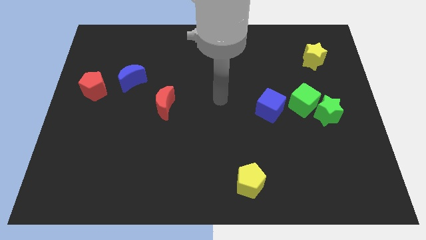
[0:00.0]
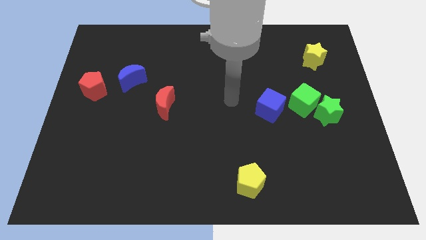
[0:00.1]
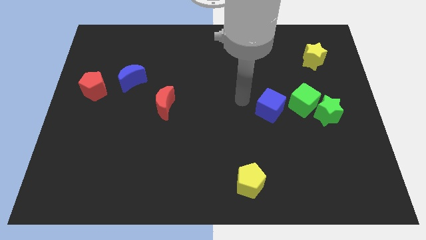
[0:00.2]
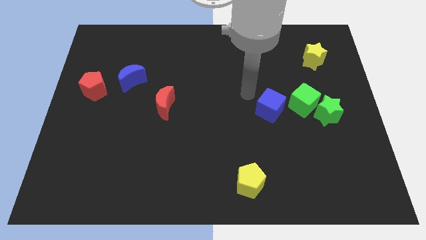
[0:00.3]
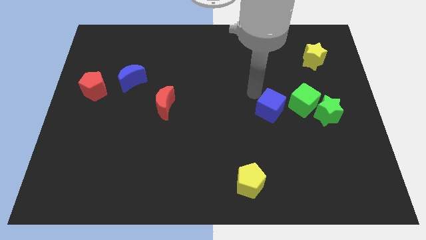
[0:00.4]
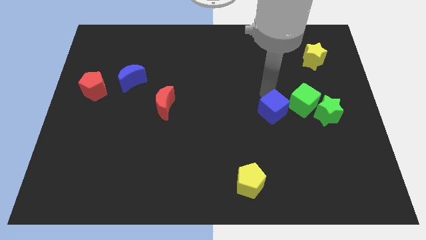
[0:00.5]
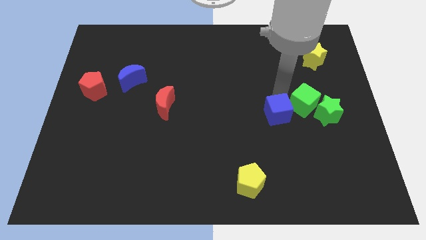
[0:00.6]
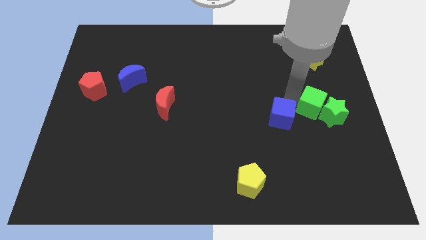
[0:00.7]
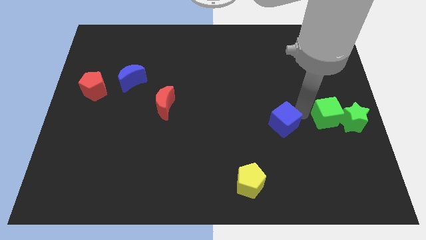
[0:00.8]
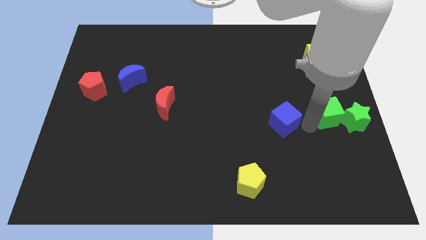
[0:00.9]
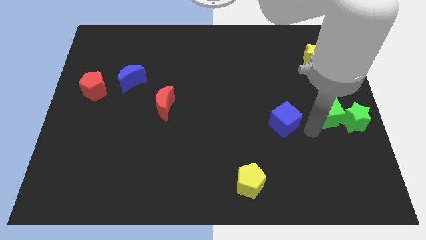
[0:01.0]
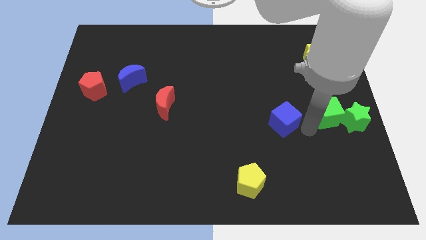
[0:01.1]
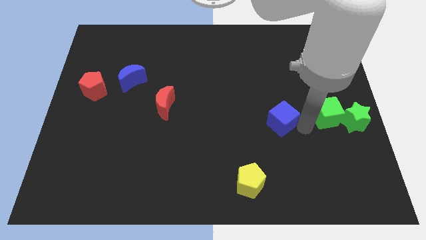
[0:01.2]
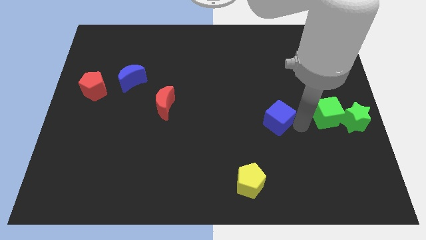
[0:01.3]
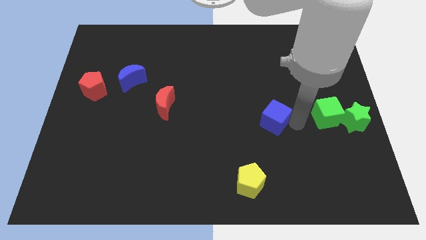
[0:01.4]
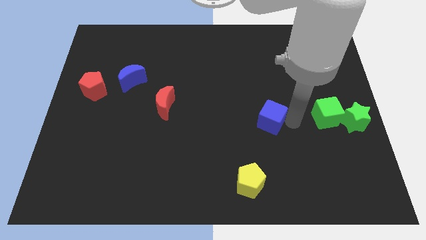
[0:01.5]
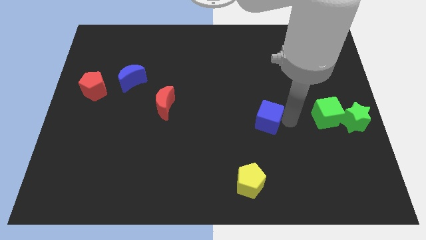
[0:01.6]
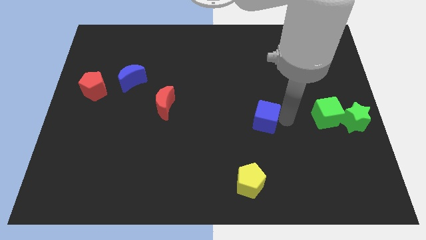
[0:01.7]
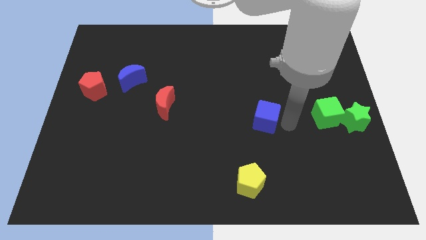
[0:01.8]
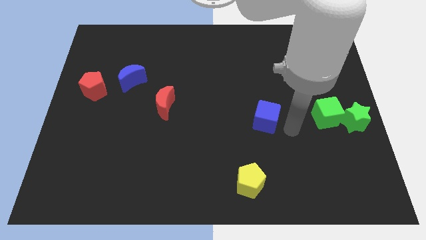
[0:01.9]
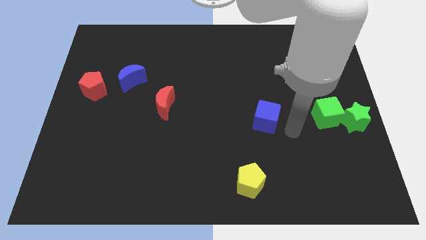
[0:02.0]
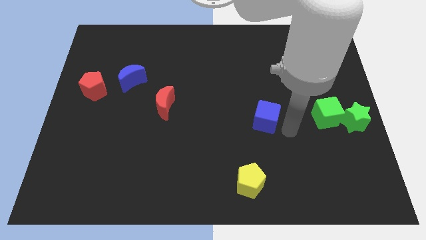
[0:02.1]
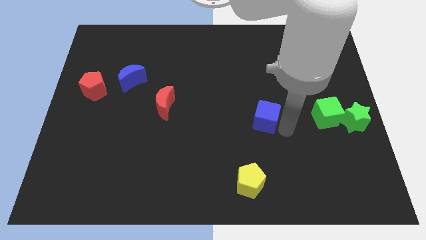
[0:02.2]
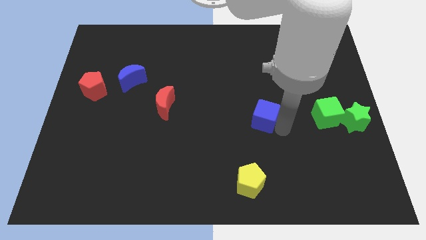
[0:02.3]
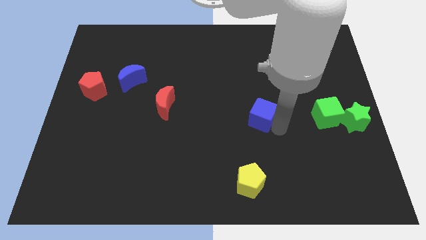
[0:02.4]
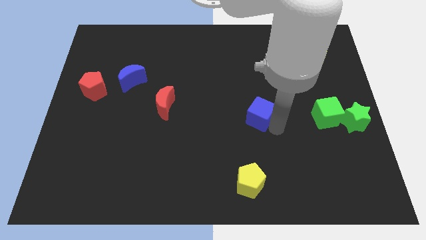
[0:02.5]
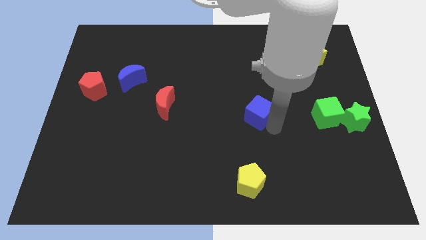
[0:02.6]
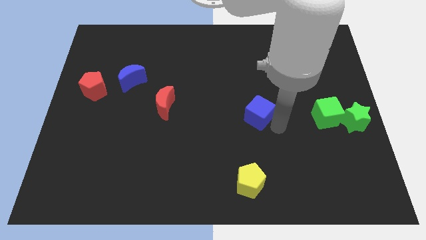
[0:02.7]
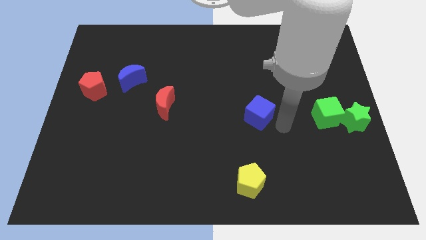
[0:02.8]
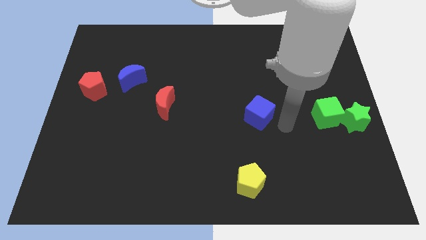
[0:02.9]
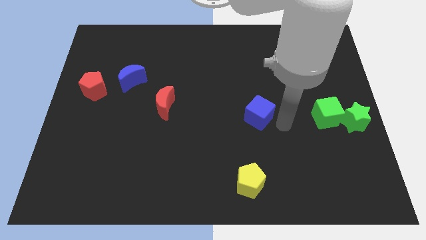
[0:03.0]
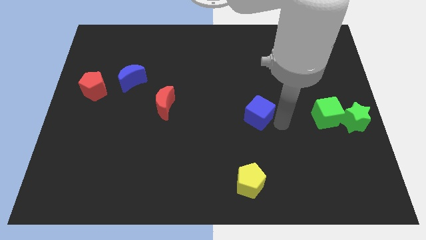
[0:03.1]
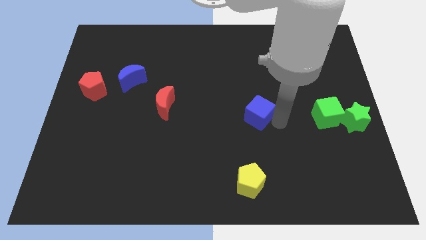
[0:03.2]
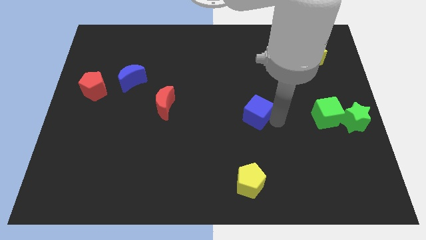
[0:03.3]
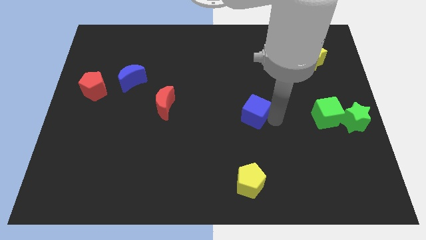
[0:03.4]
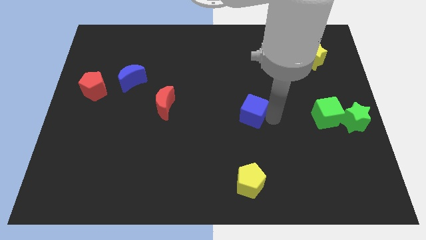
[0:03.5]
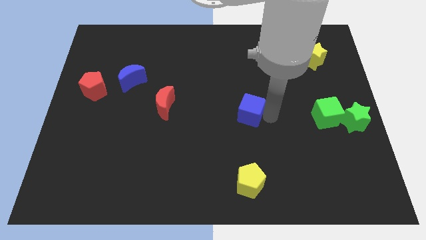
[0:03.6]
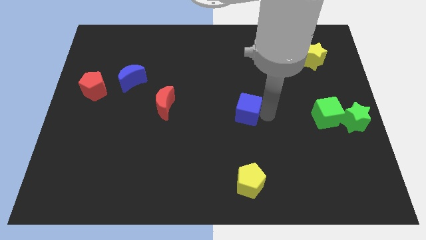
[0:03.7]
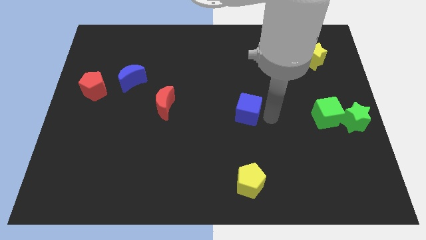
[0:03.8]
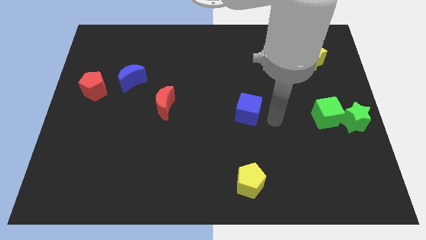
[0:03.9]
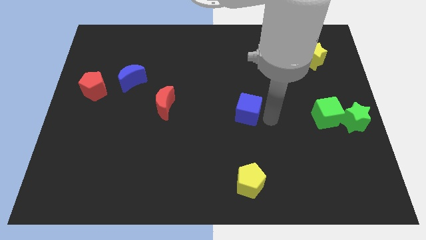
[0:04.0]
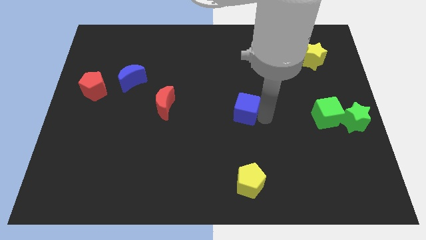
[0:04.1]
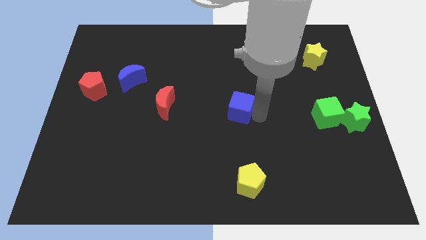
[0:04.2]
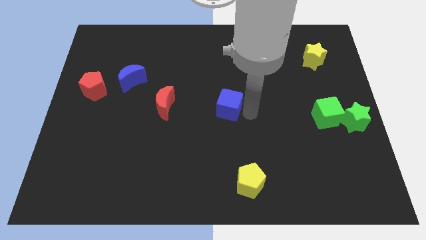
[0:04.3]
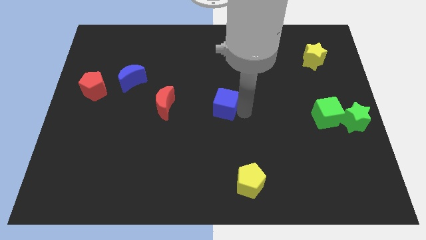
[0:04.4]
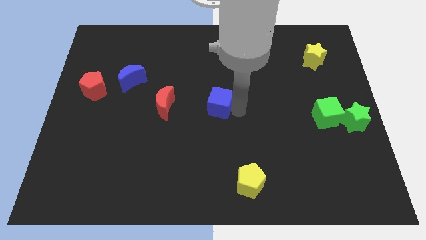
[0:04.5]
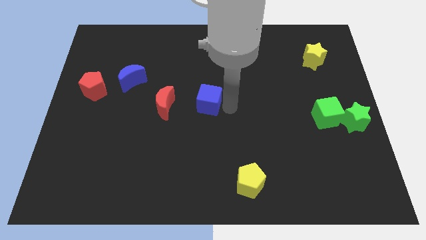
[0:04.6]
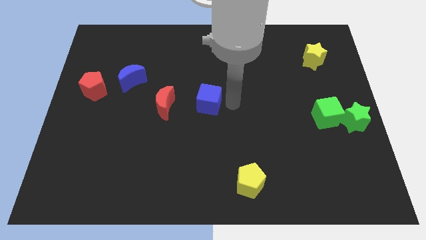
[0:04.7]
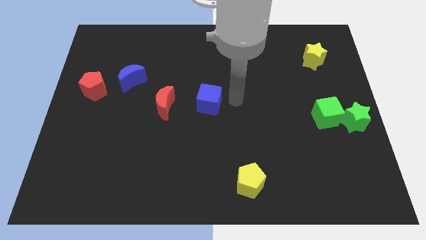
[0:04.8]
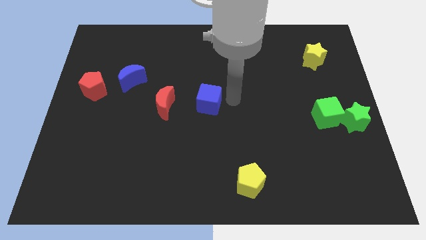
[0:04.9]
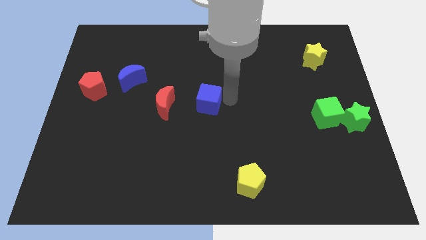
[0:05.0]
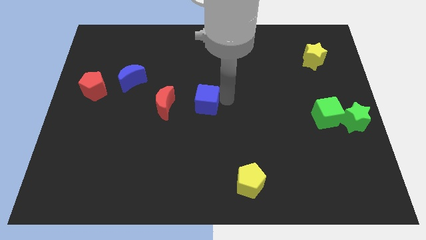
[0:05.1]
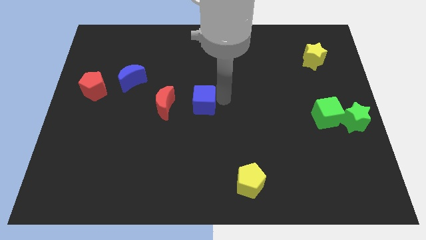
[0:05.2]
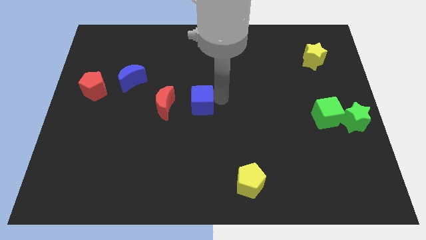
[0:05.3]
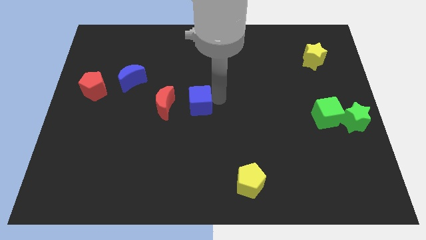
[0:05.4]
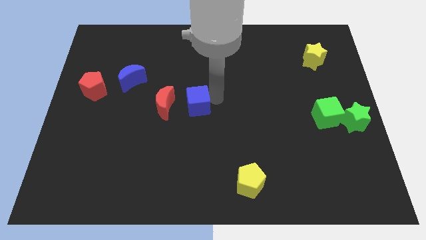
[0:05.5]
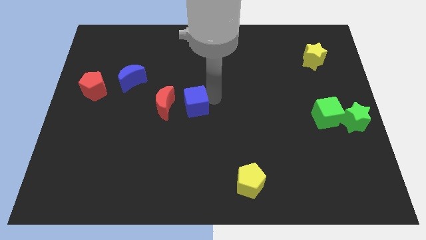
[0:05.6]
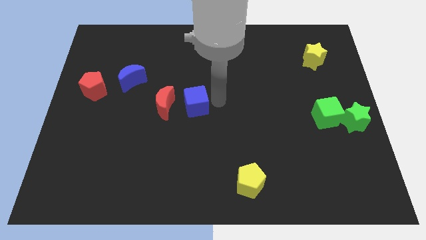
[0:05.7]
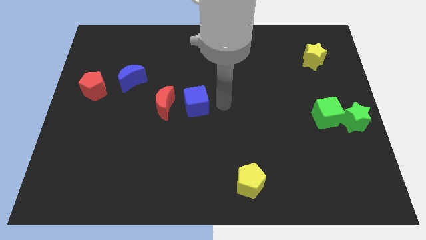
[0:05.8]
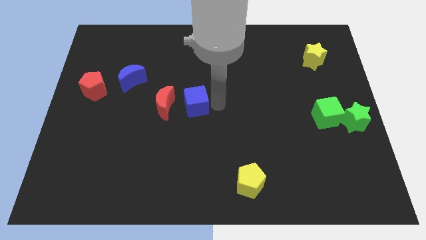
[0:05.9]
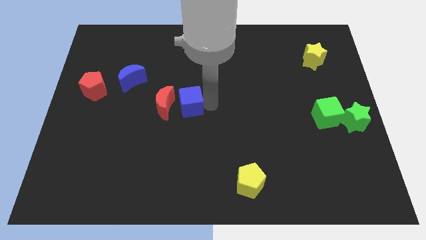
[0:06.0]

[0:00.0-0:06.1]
put the blue cube next to the red moon

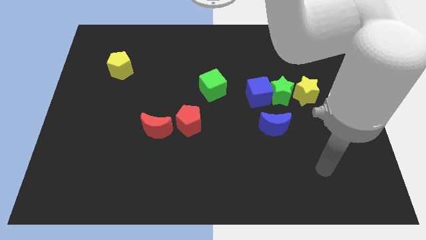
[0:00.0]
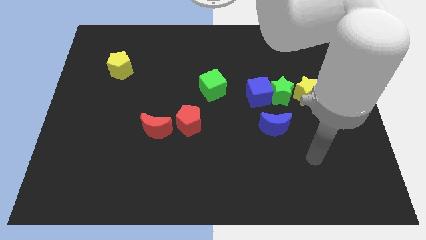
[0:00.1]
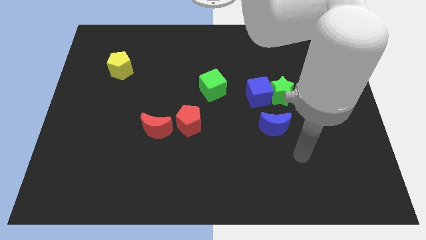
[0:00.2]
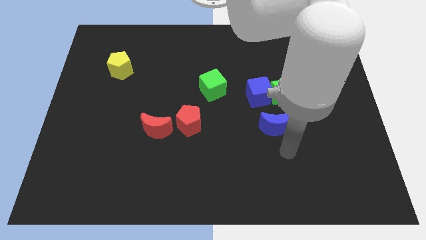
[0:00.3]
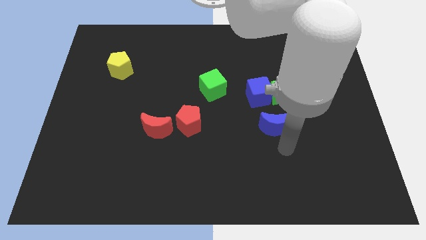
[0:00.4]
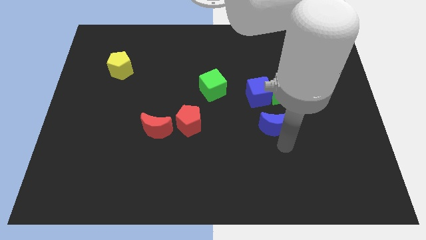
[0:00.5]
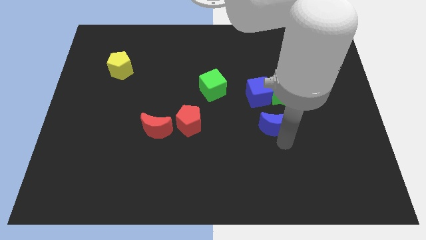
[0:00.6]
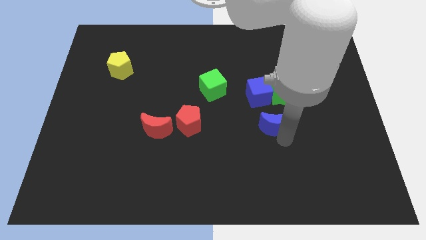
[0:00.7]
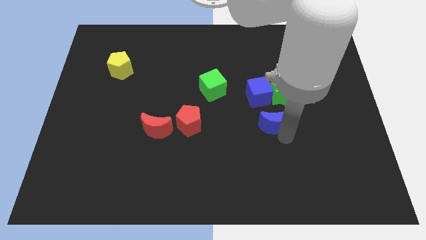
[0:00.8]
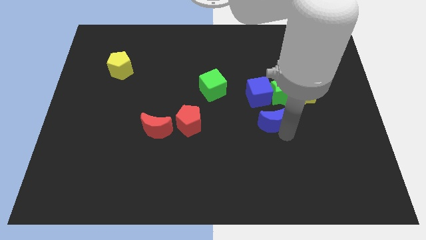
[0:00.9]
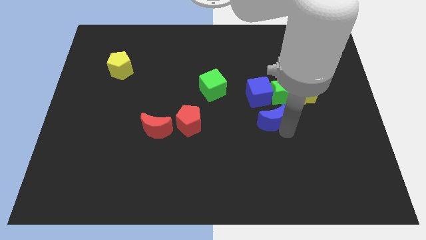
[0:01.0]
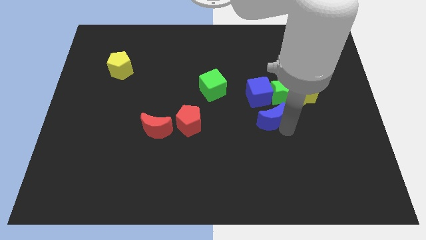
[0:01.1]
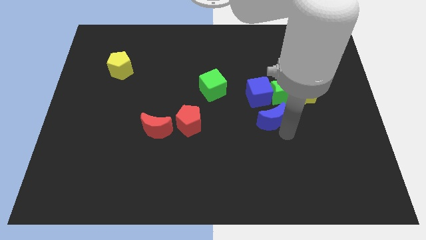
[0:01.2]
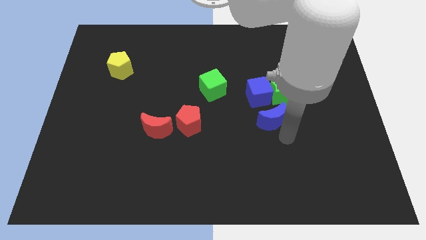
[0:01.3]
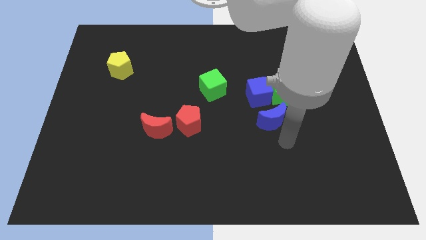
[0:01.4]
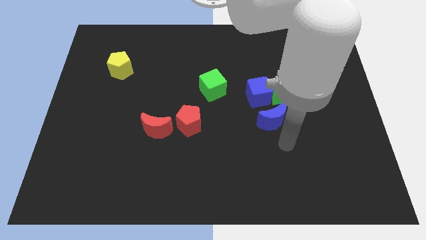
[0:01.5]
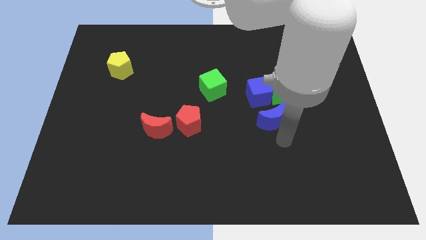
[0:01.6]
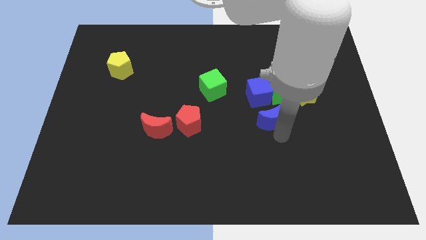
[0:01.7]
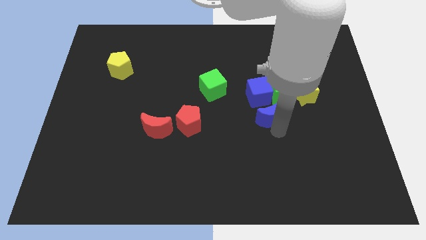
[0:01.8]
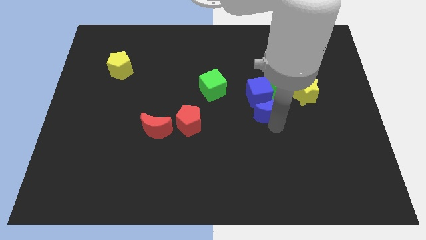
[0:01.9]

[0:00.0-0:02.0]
put the blue moon next to the blue cube
